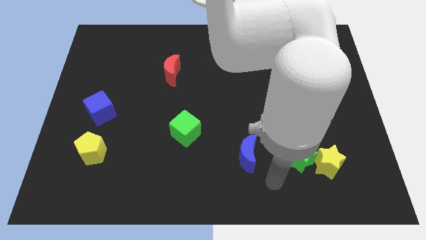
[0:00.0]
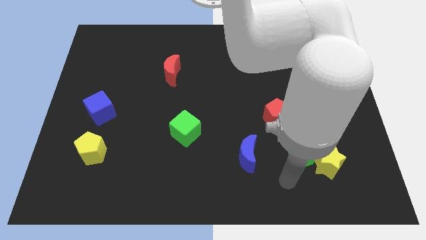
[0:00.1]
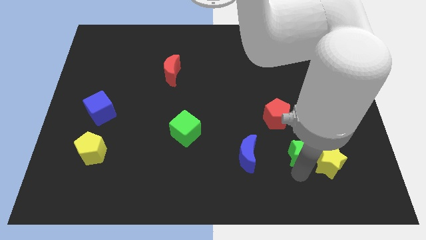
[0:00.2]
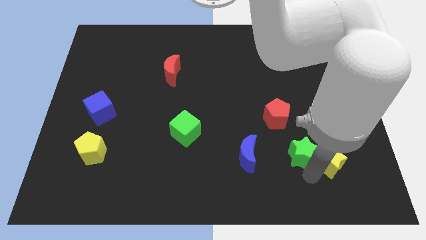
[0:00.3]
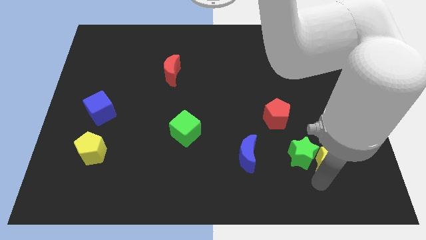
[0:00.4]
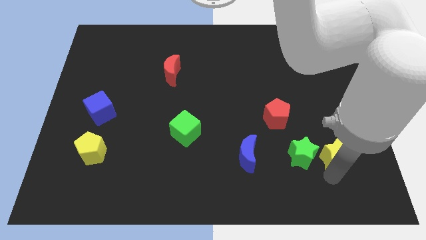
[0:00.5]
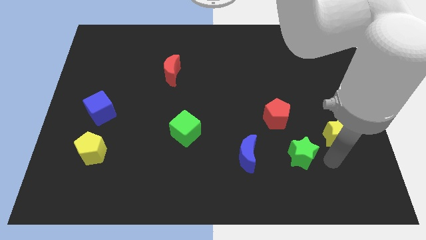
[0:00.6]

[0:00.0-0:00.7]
separate the green star from the yellow star

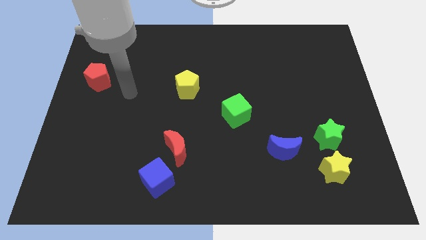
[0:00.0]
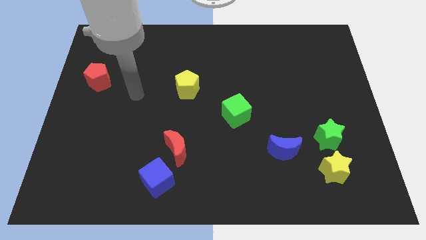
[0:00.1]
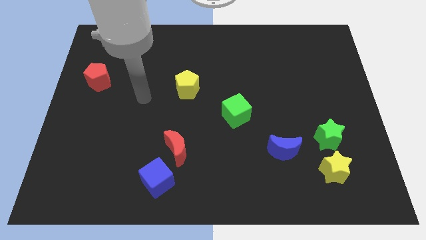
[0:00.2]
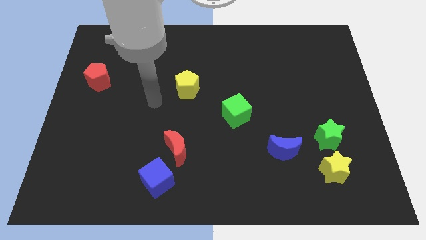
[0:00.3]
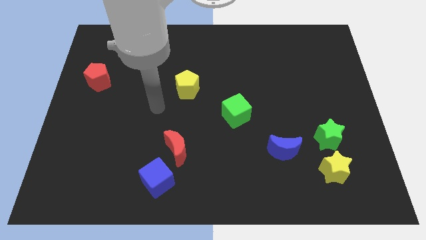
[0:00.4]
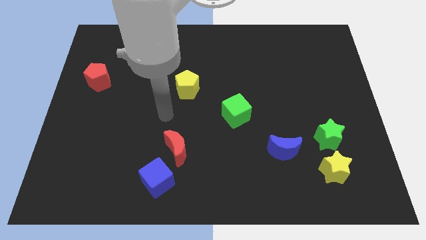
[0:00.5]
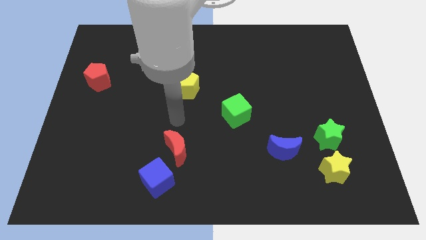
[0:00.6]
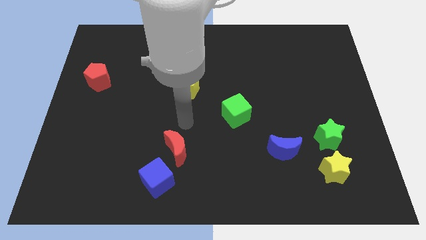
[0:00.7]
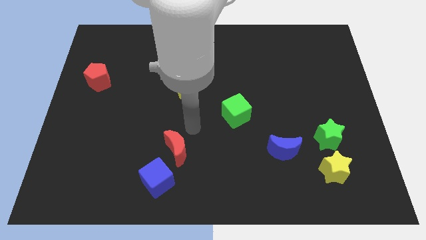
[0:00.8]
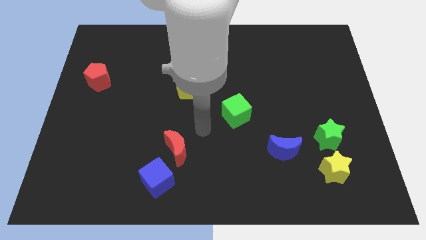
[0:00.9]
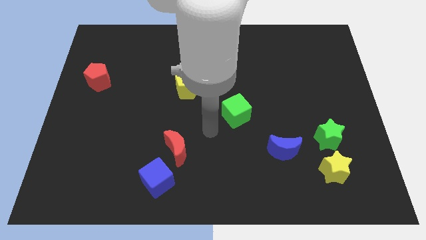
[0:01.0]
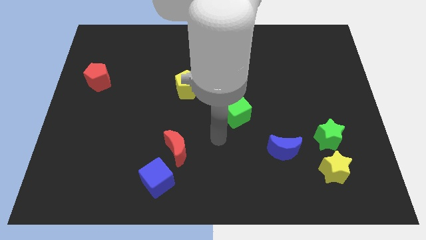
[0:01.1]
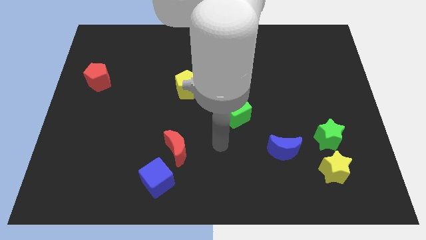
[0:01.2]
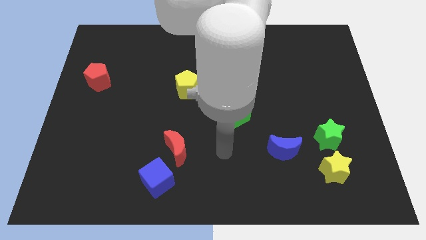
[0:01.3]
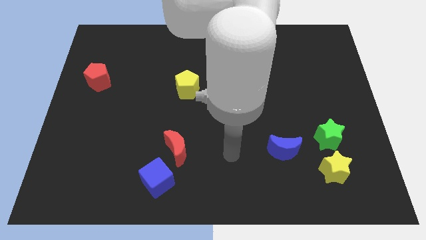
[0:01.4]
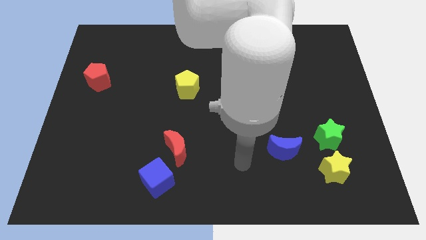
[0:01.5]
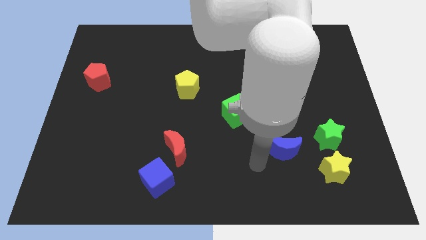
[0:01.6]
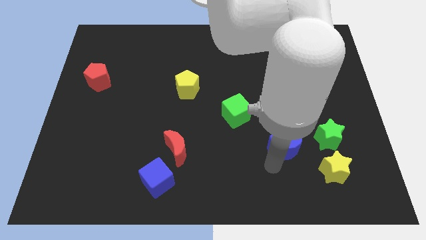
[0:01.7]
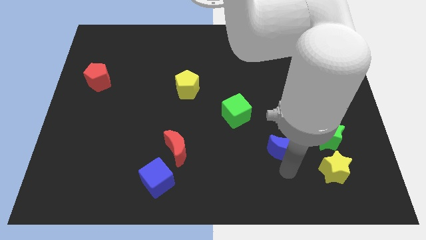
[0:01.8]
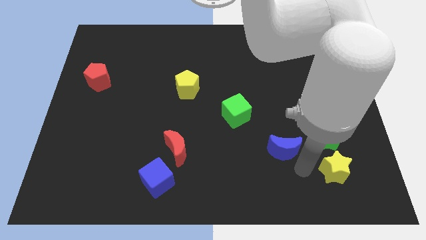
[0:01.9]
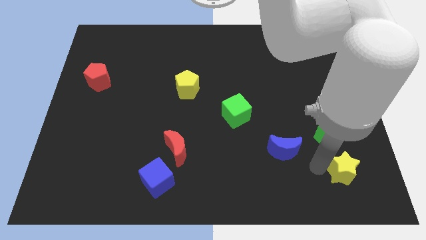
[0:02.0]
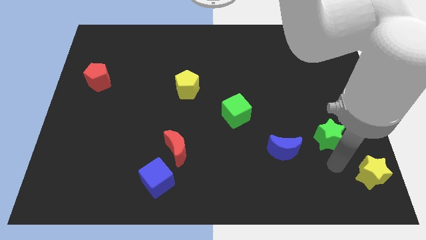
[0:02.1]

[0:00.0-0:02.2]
move the green star away from the yellow star

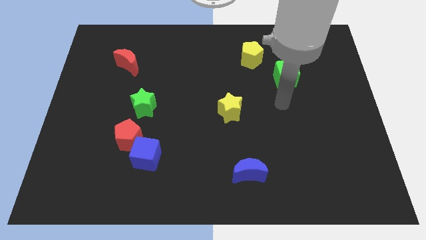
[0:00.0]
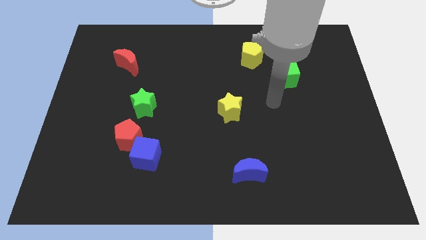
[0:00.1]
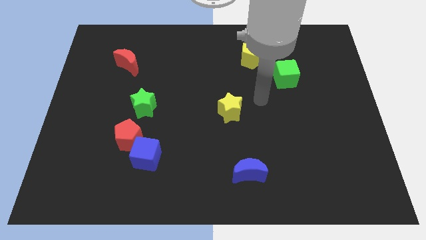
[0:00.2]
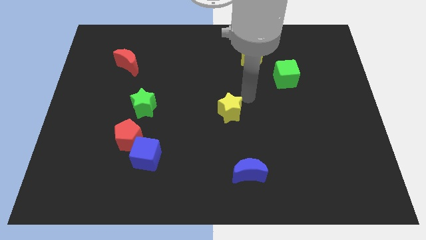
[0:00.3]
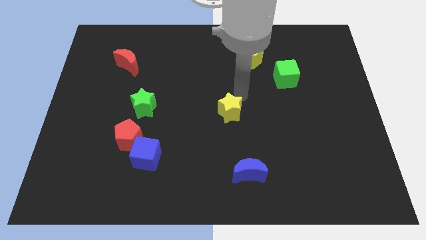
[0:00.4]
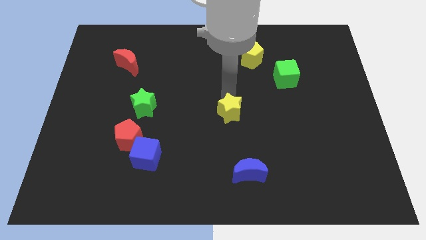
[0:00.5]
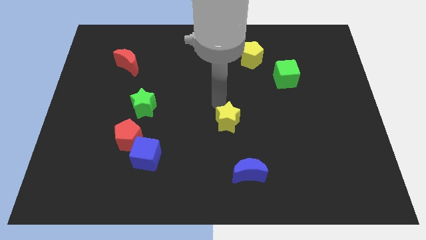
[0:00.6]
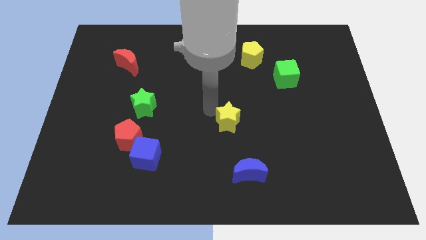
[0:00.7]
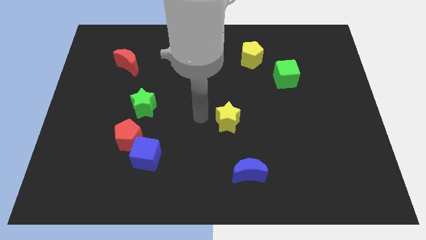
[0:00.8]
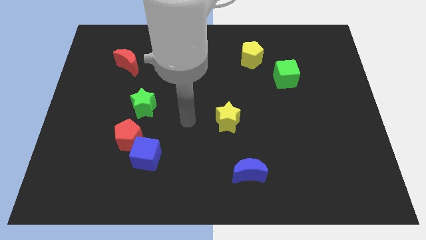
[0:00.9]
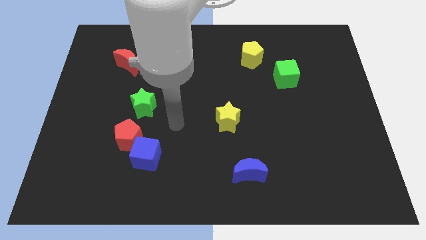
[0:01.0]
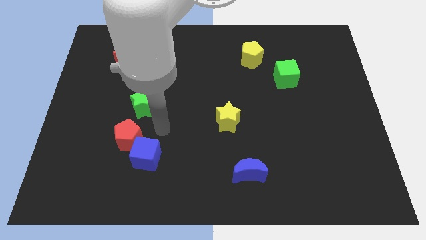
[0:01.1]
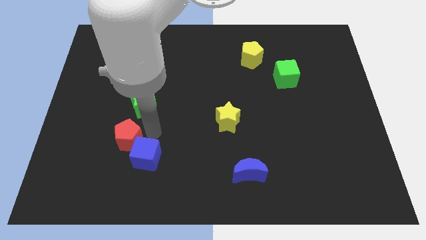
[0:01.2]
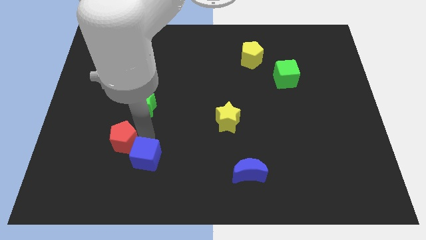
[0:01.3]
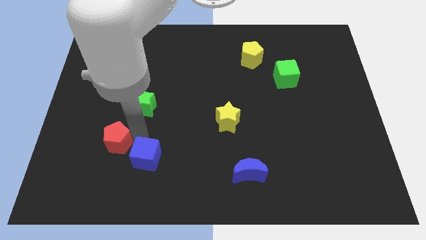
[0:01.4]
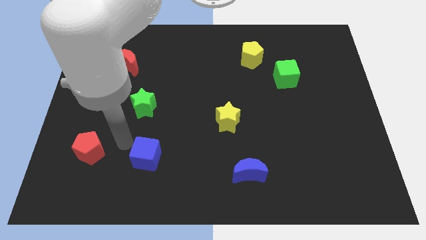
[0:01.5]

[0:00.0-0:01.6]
pull the blue cube apart from the red pentagon

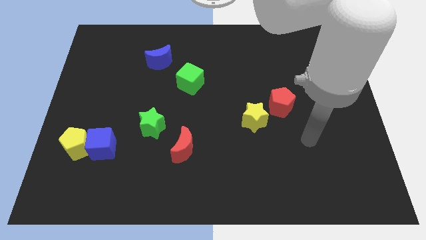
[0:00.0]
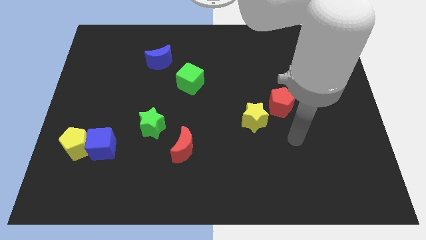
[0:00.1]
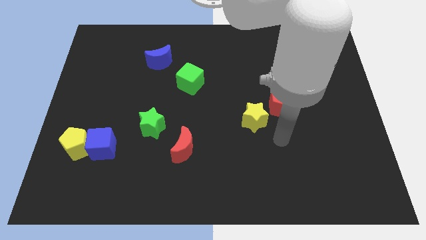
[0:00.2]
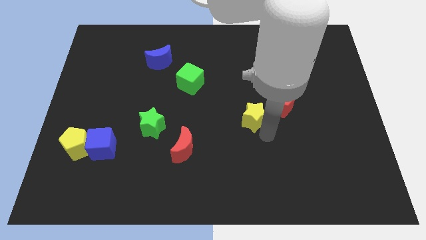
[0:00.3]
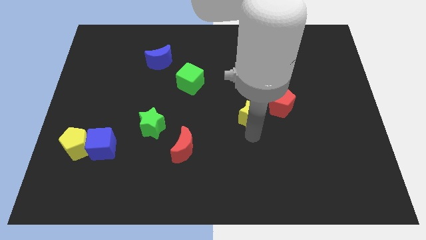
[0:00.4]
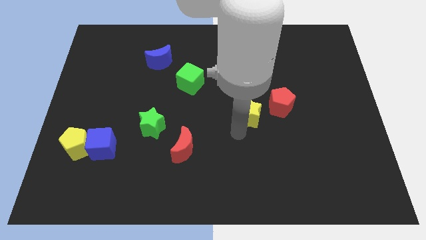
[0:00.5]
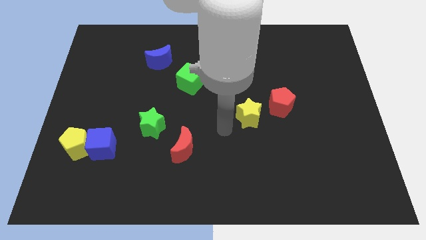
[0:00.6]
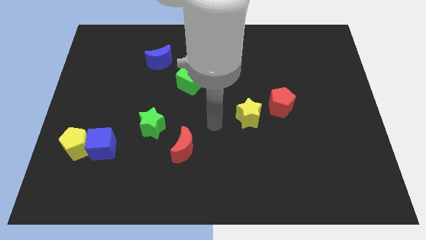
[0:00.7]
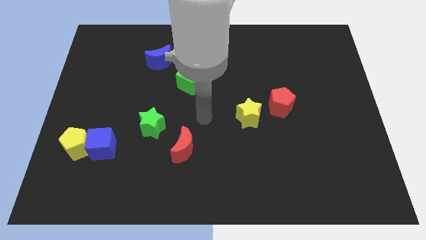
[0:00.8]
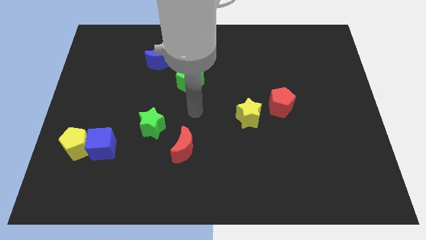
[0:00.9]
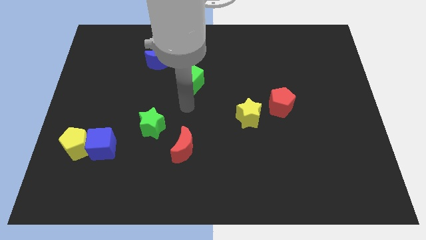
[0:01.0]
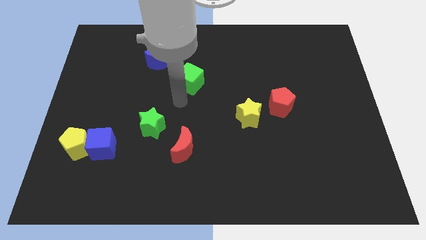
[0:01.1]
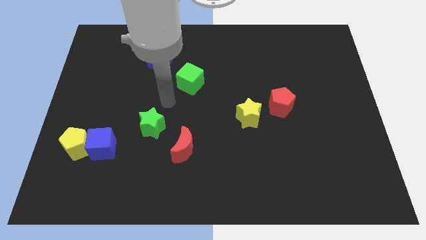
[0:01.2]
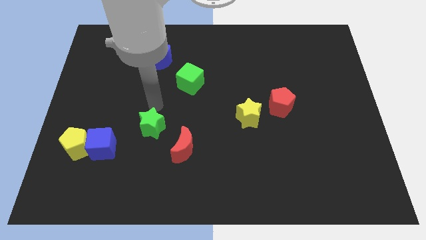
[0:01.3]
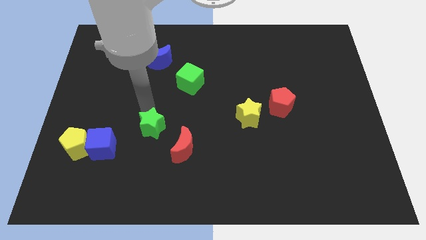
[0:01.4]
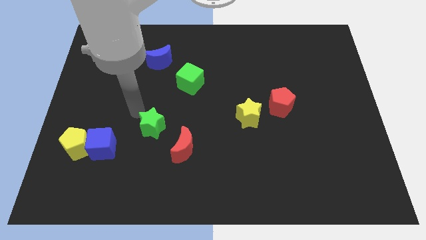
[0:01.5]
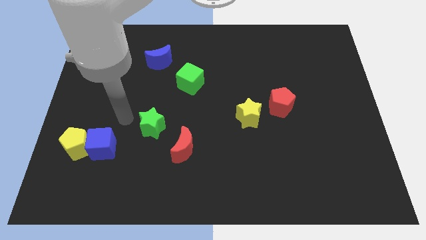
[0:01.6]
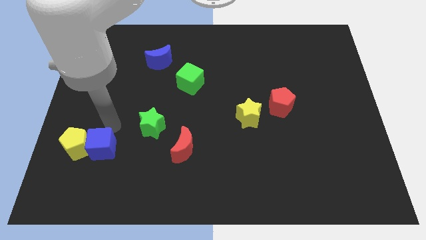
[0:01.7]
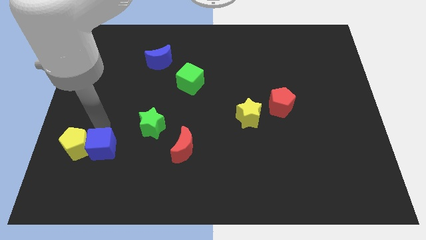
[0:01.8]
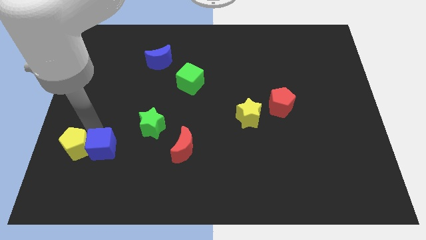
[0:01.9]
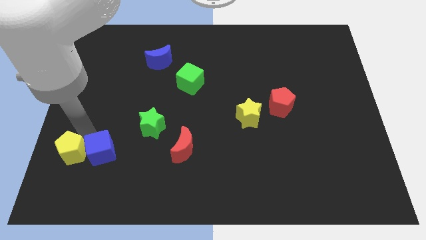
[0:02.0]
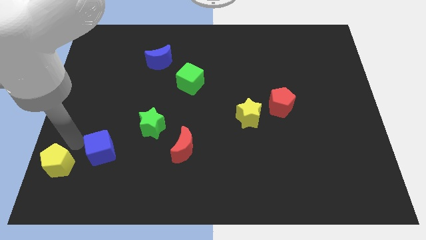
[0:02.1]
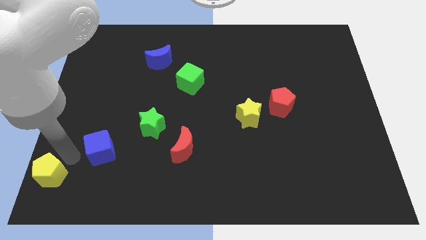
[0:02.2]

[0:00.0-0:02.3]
separate the blue cube from the yellow pentagon

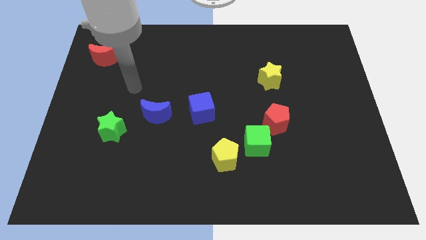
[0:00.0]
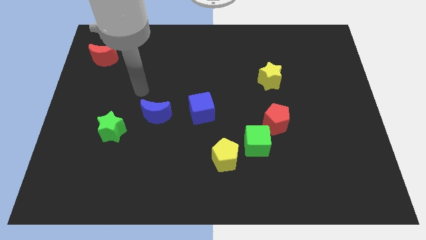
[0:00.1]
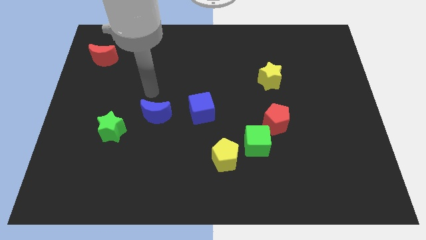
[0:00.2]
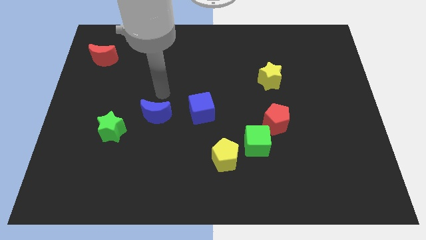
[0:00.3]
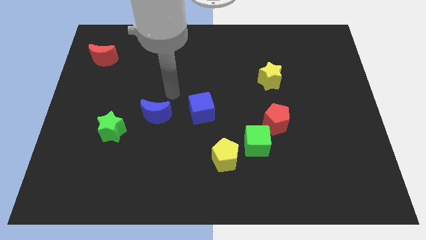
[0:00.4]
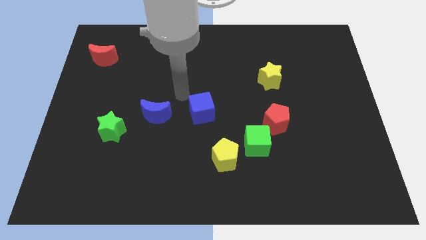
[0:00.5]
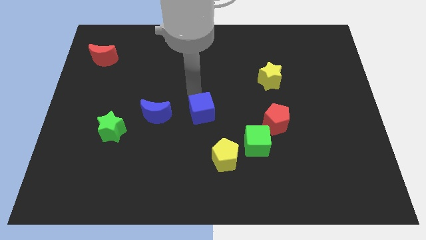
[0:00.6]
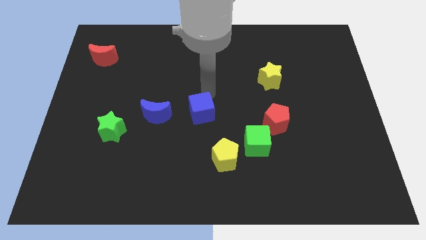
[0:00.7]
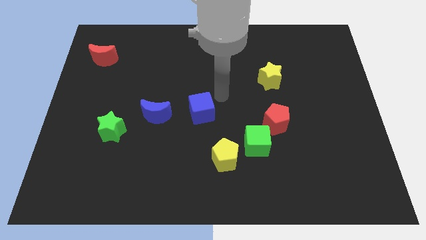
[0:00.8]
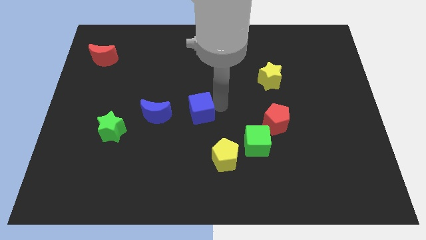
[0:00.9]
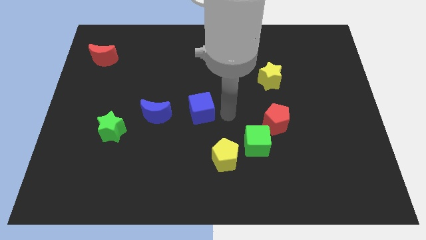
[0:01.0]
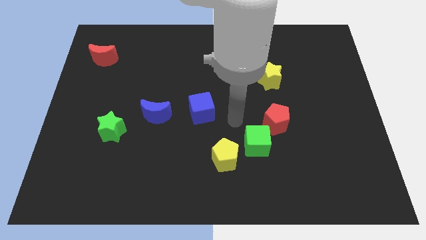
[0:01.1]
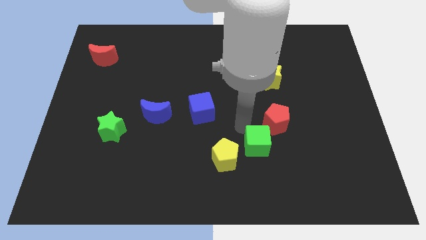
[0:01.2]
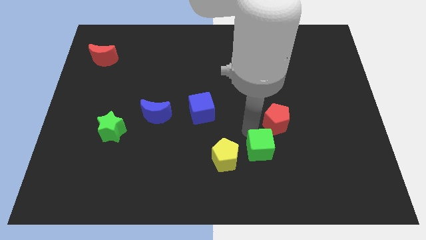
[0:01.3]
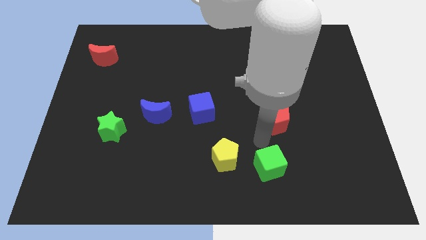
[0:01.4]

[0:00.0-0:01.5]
separate the red pentagon from the green cube

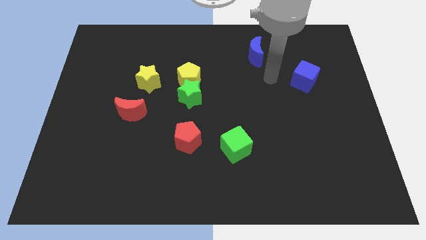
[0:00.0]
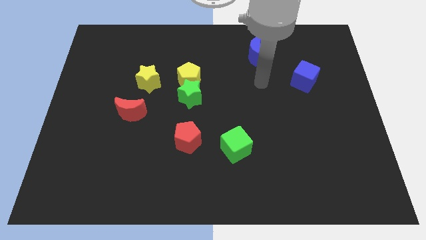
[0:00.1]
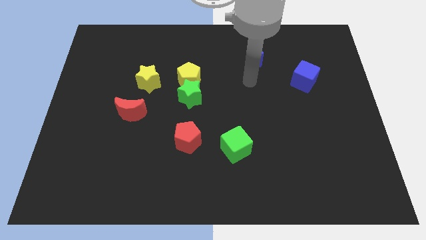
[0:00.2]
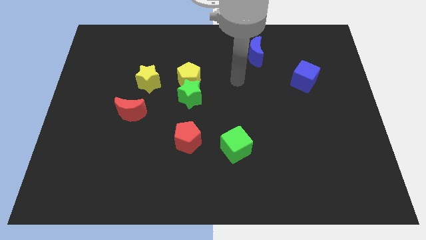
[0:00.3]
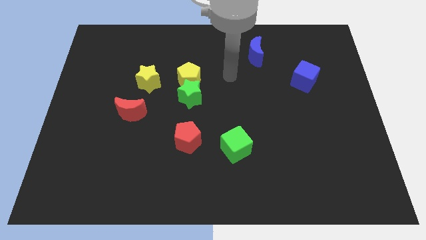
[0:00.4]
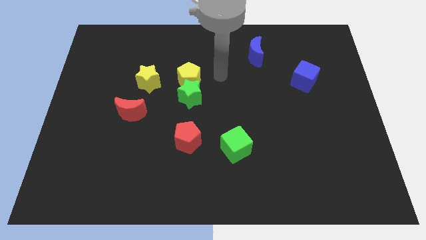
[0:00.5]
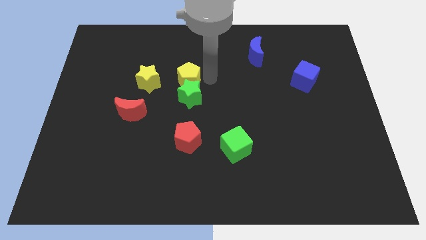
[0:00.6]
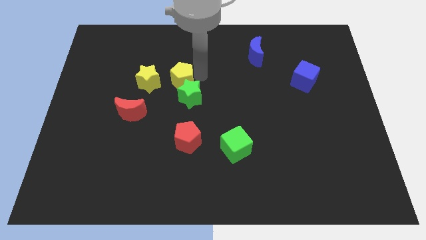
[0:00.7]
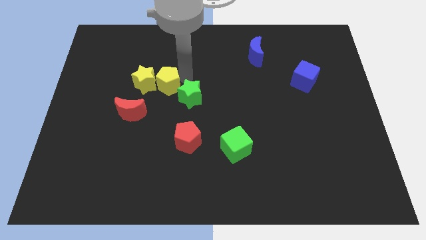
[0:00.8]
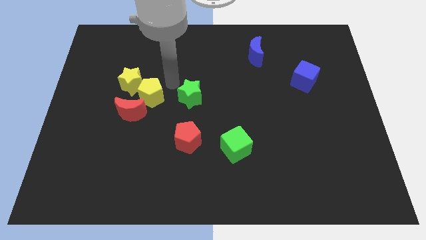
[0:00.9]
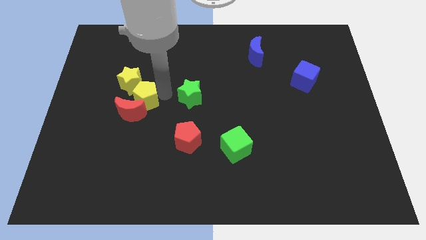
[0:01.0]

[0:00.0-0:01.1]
move the green star away from the yellow pentagon
